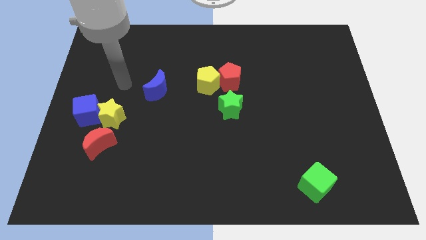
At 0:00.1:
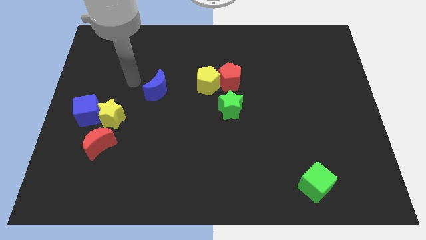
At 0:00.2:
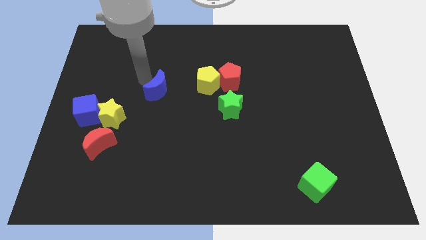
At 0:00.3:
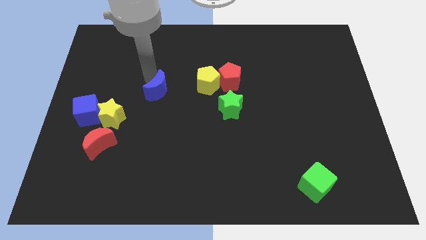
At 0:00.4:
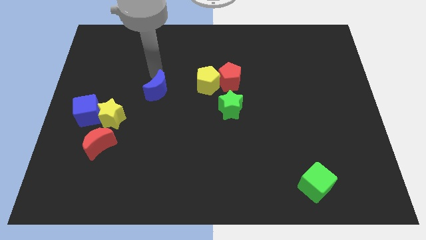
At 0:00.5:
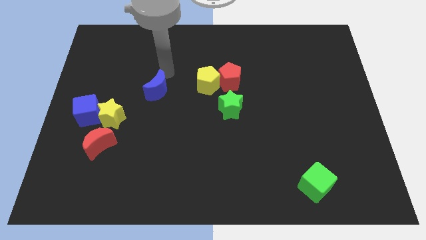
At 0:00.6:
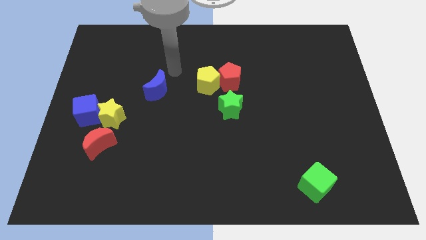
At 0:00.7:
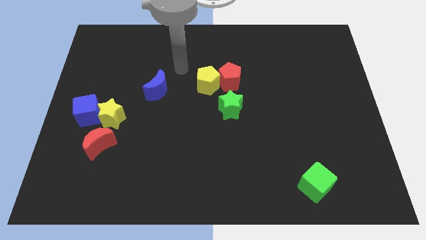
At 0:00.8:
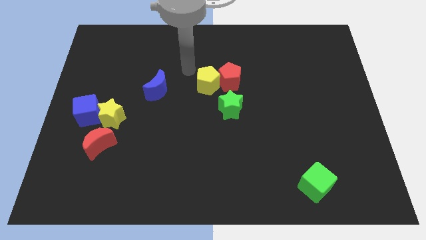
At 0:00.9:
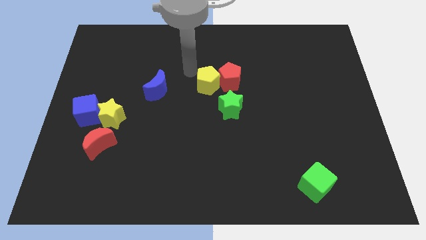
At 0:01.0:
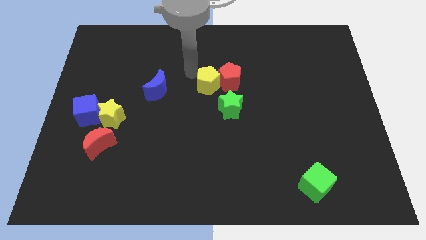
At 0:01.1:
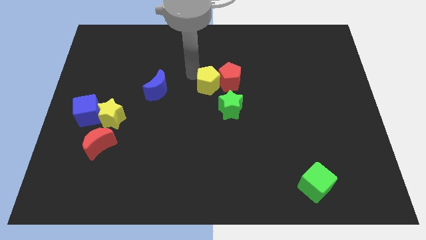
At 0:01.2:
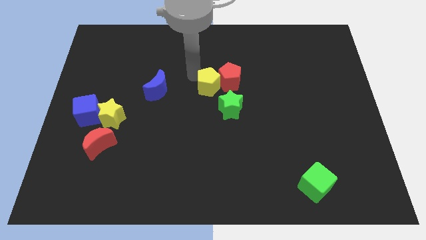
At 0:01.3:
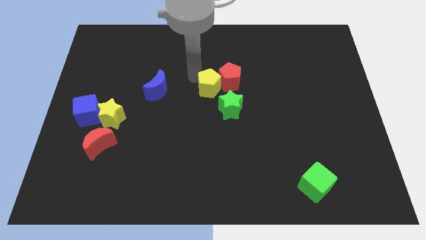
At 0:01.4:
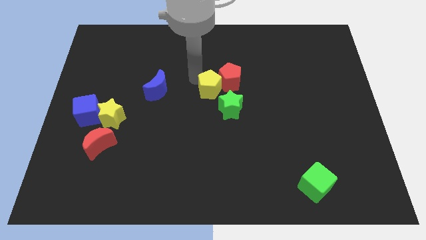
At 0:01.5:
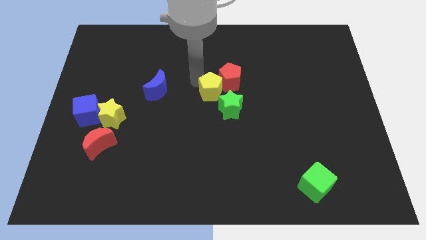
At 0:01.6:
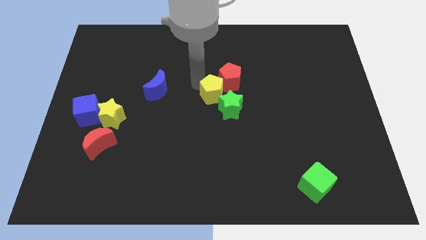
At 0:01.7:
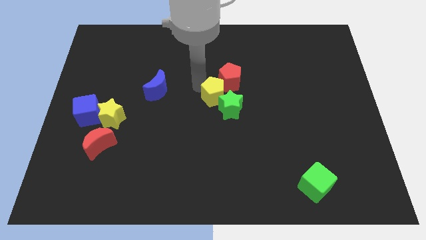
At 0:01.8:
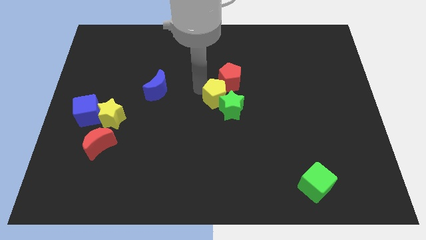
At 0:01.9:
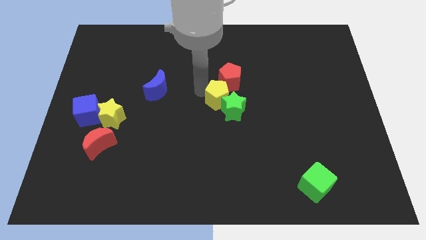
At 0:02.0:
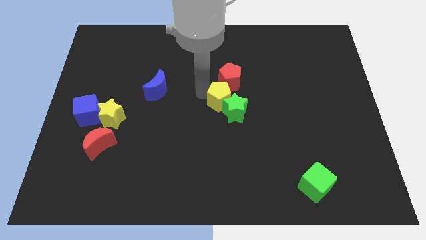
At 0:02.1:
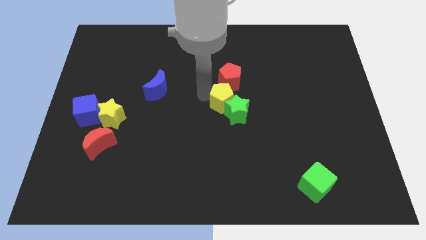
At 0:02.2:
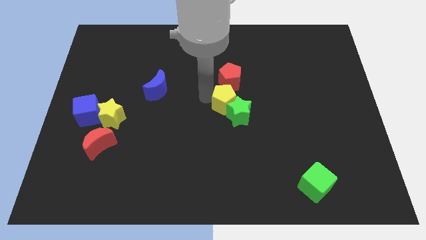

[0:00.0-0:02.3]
push the yellow pentagon somewhat diagonally downwards and right

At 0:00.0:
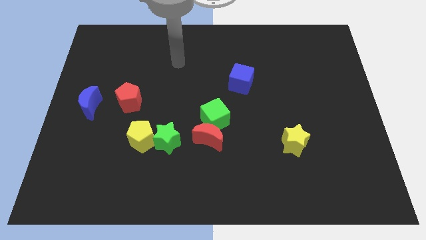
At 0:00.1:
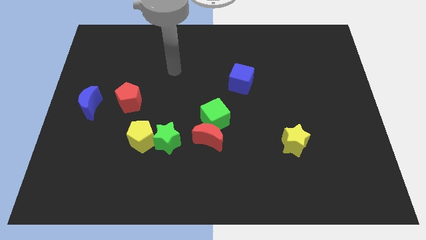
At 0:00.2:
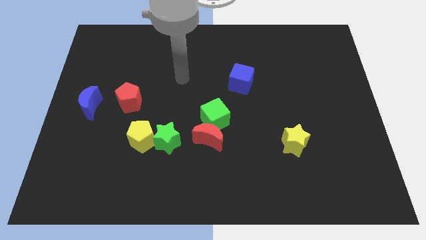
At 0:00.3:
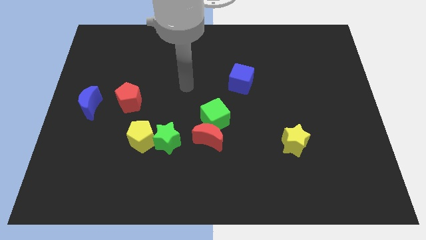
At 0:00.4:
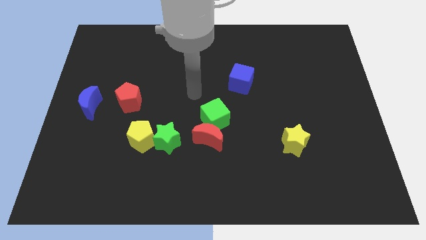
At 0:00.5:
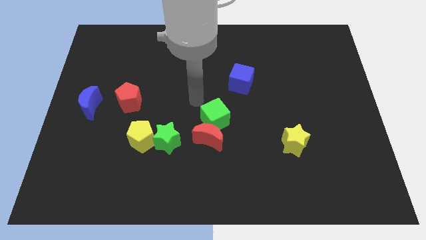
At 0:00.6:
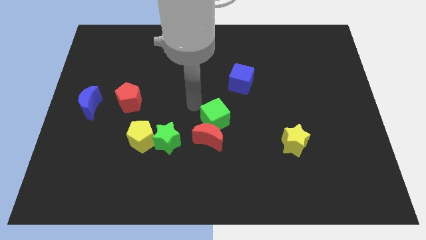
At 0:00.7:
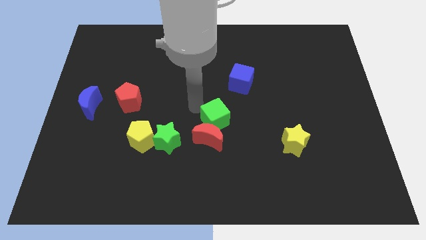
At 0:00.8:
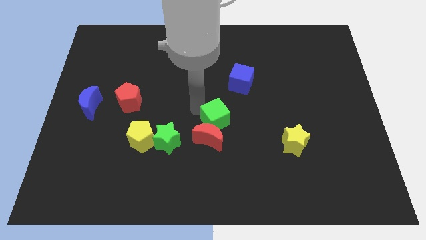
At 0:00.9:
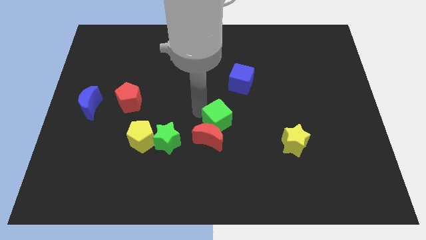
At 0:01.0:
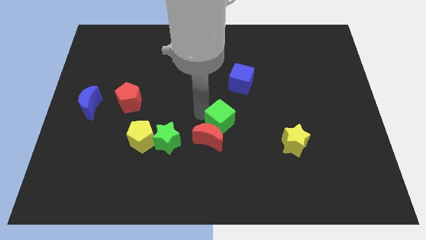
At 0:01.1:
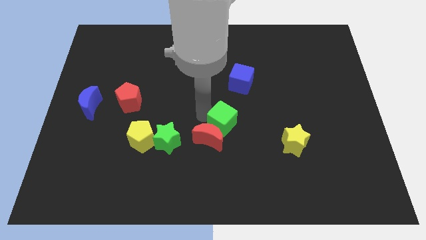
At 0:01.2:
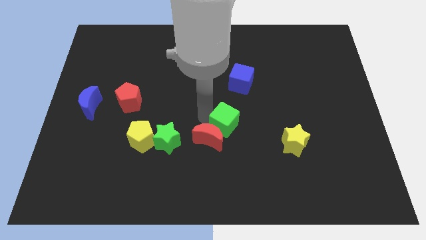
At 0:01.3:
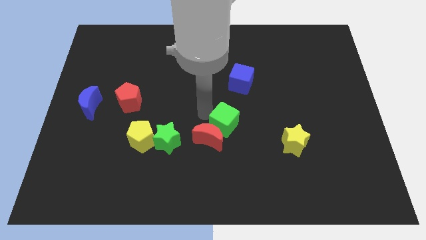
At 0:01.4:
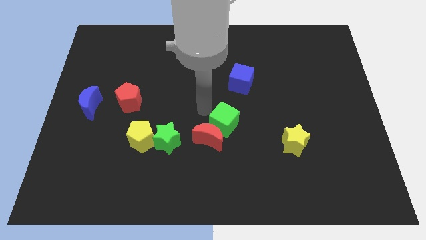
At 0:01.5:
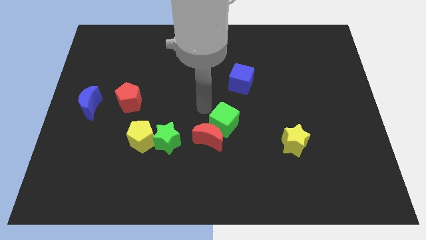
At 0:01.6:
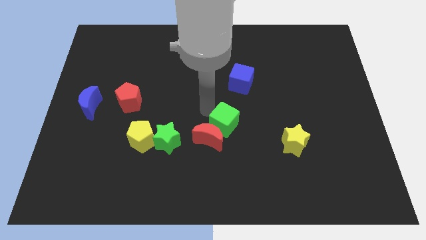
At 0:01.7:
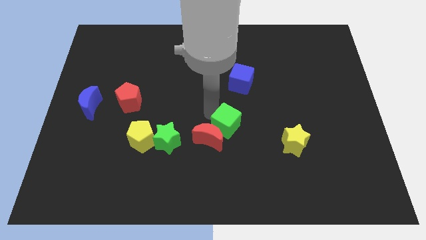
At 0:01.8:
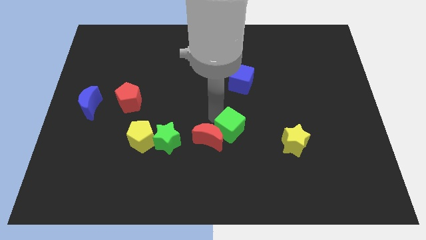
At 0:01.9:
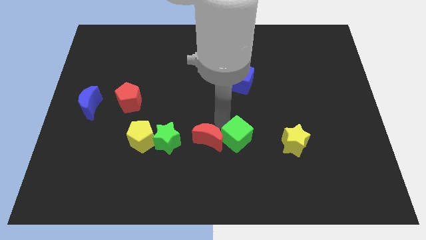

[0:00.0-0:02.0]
push the green cube a little bit diagonally downwards and right

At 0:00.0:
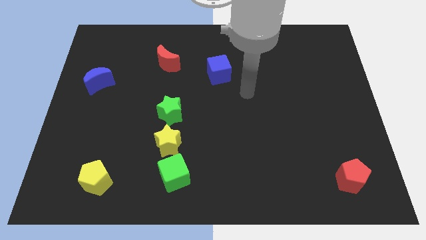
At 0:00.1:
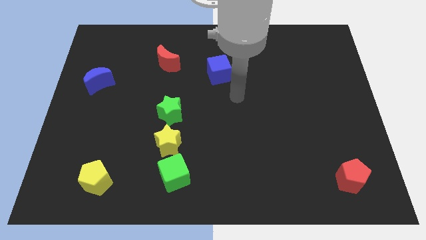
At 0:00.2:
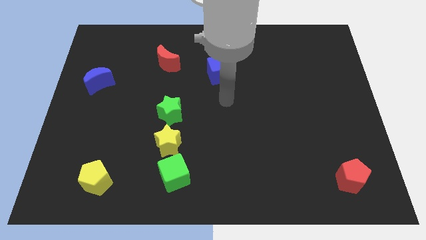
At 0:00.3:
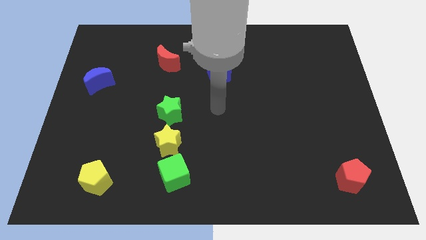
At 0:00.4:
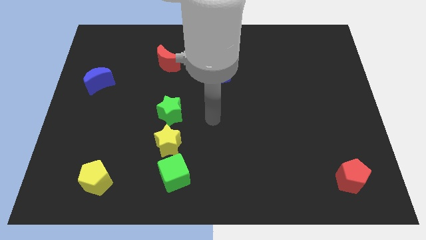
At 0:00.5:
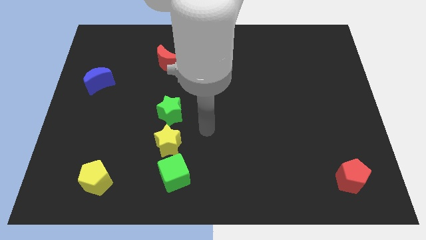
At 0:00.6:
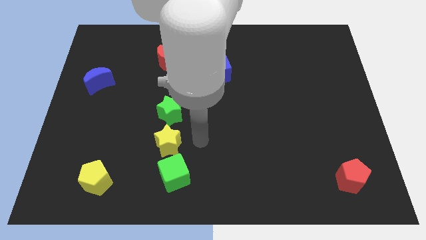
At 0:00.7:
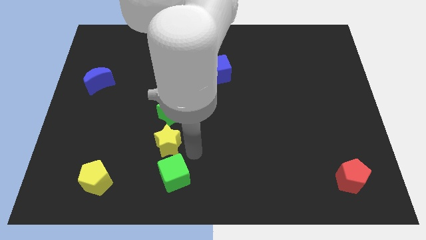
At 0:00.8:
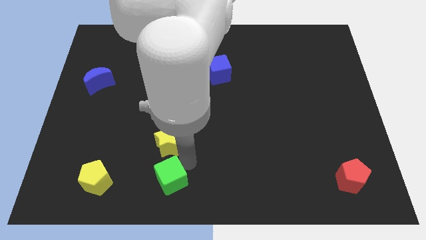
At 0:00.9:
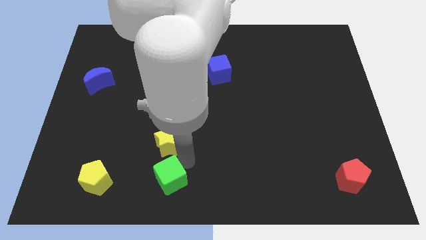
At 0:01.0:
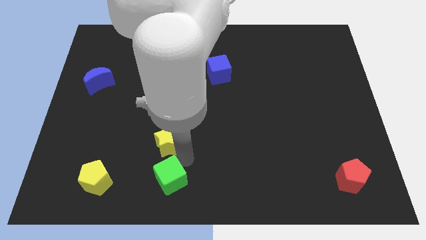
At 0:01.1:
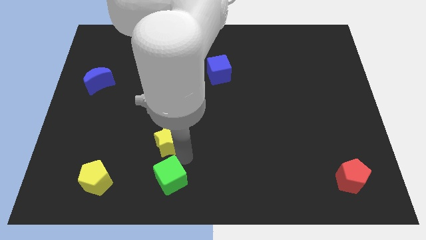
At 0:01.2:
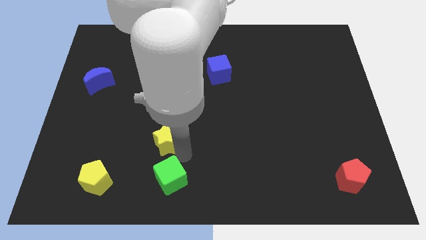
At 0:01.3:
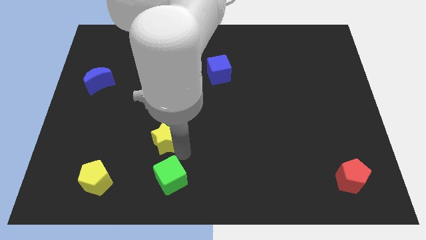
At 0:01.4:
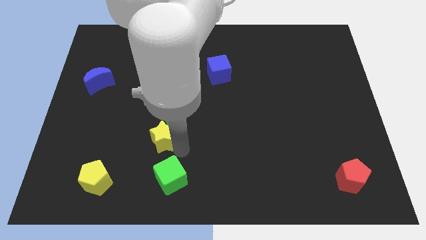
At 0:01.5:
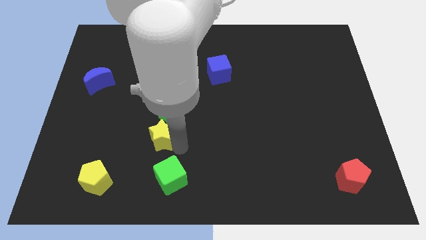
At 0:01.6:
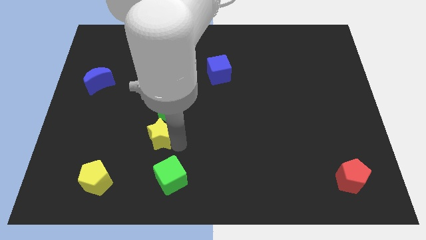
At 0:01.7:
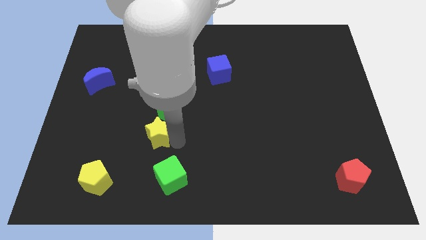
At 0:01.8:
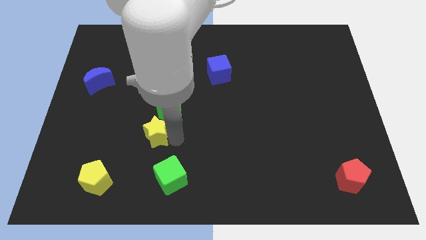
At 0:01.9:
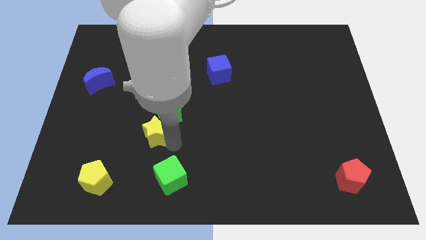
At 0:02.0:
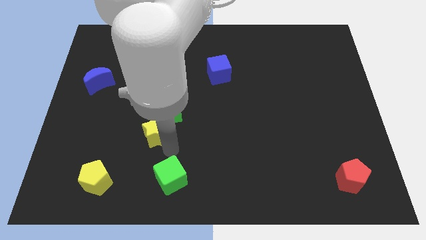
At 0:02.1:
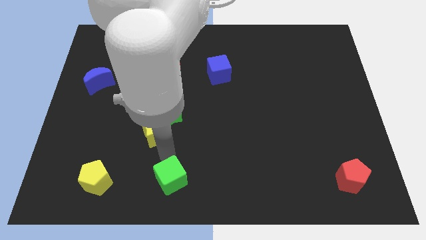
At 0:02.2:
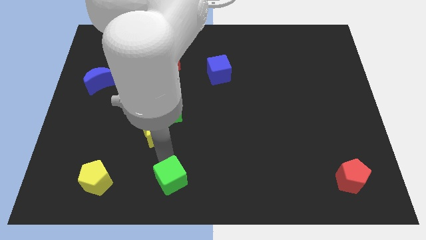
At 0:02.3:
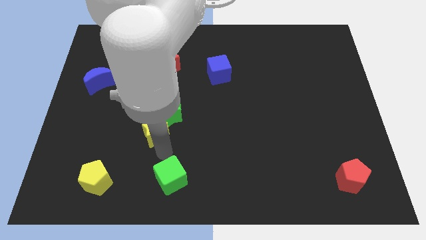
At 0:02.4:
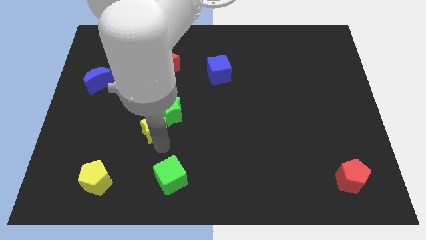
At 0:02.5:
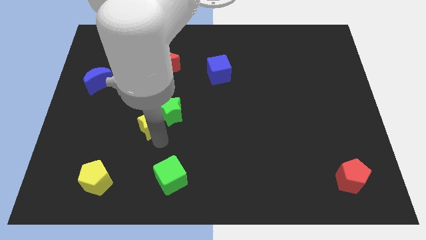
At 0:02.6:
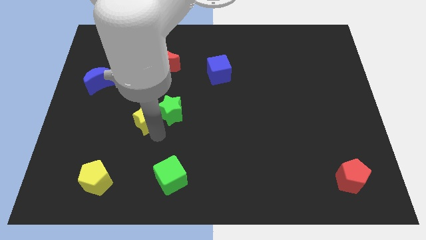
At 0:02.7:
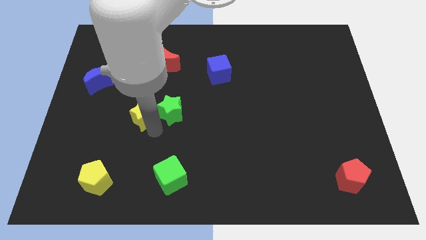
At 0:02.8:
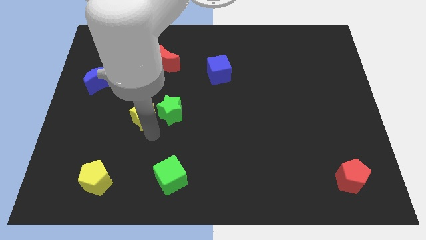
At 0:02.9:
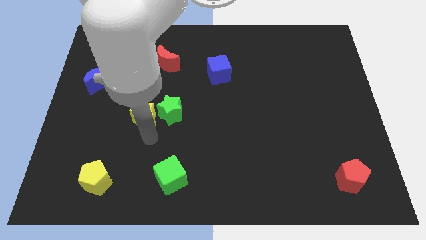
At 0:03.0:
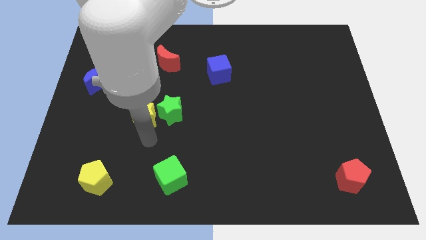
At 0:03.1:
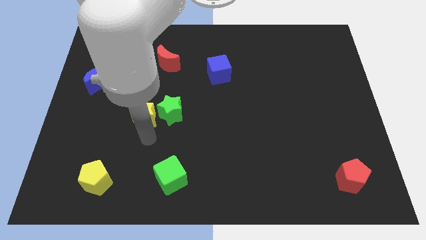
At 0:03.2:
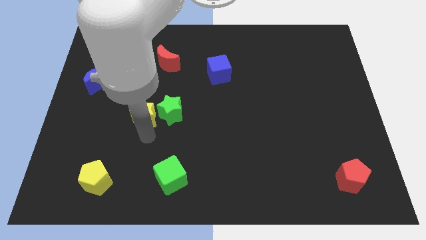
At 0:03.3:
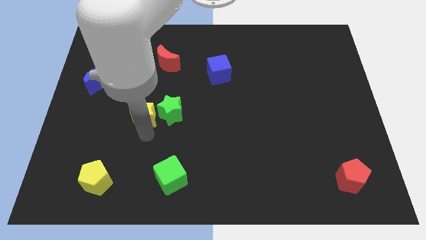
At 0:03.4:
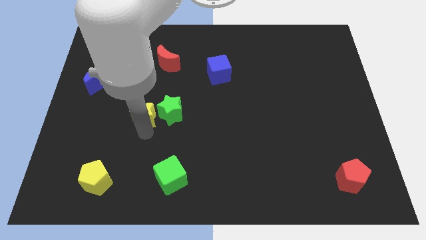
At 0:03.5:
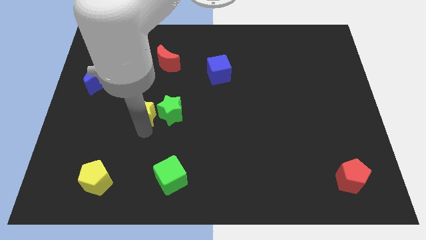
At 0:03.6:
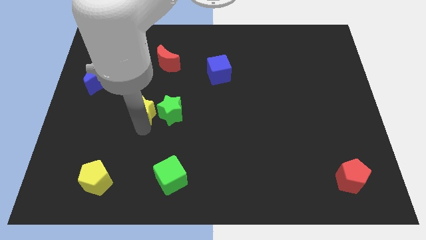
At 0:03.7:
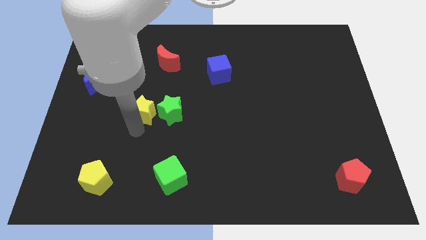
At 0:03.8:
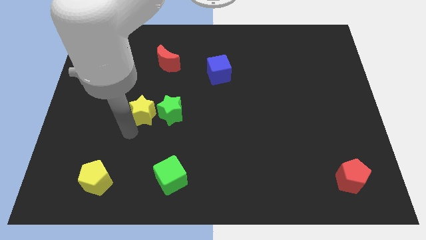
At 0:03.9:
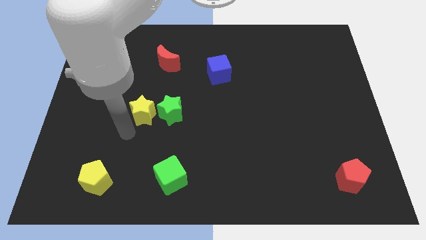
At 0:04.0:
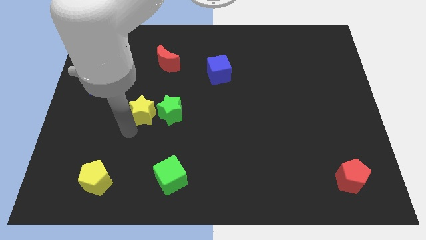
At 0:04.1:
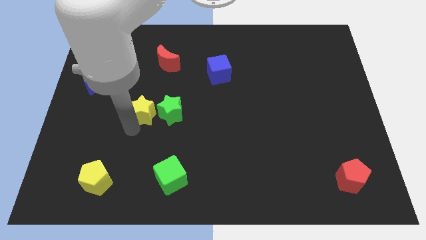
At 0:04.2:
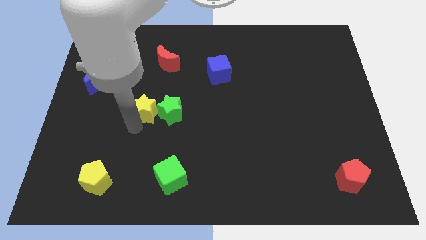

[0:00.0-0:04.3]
slide the yellow star slightly upwards
